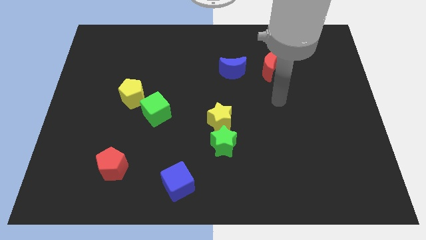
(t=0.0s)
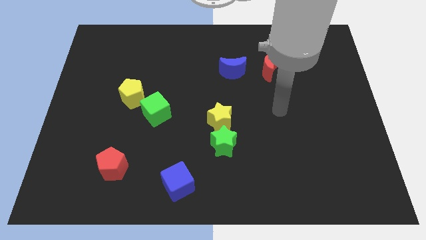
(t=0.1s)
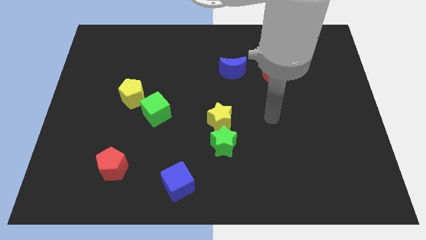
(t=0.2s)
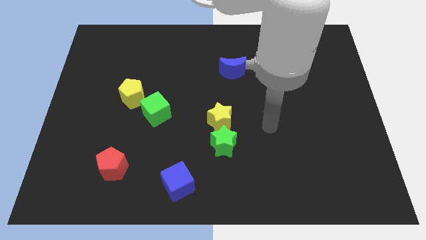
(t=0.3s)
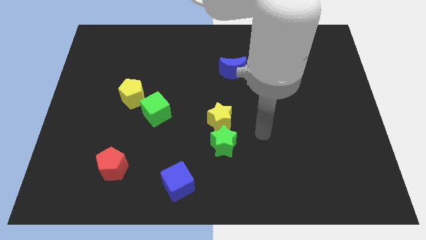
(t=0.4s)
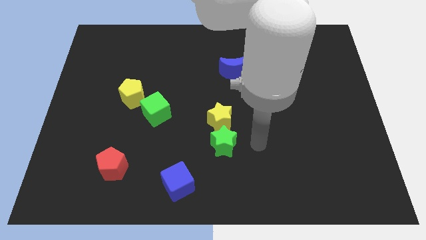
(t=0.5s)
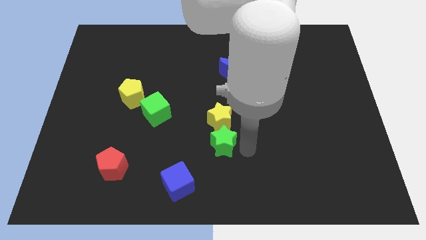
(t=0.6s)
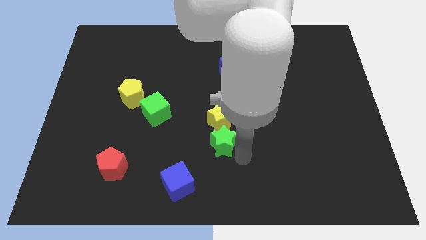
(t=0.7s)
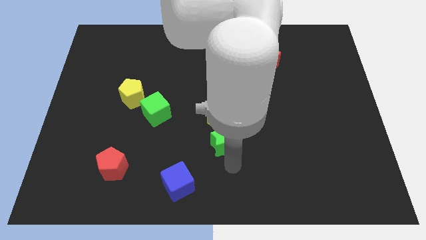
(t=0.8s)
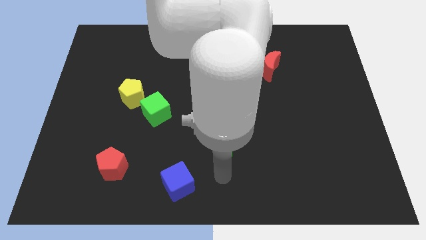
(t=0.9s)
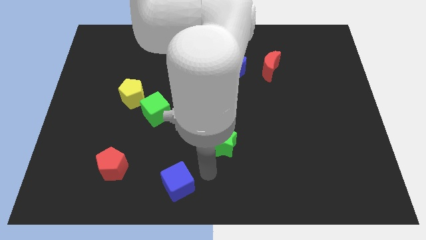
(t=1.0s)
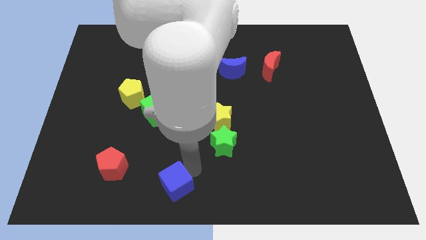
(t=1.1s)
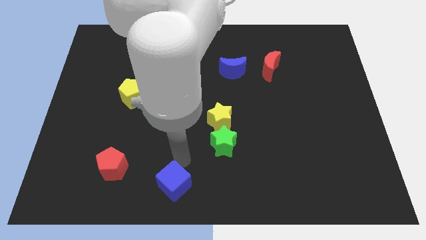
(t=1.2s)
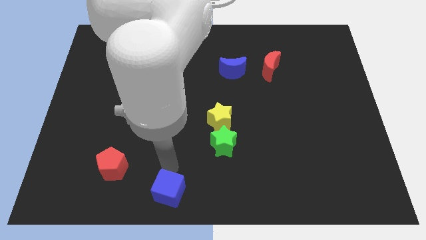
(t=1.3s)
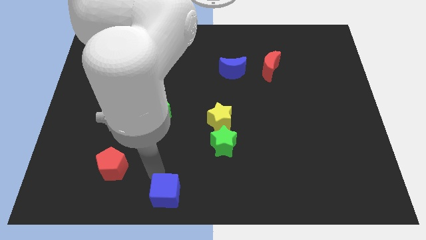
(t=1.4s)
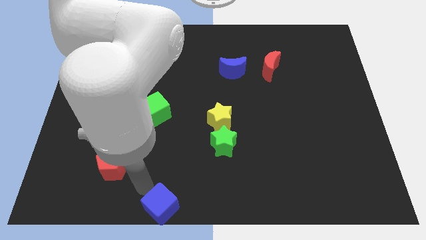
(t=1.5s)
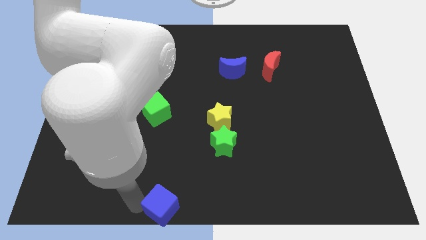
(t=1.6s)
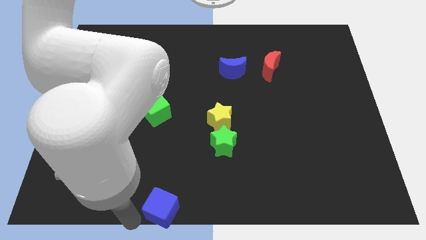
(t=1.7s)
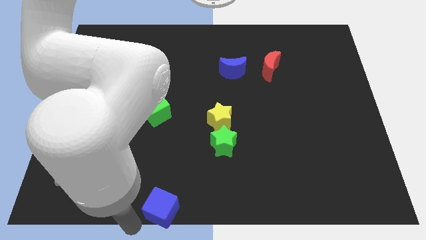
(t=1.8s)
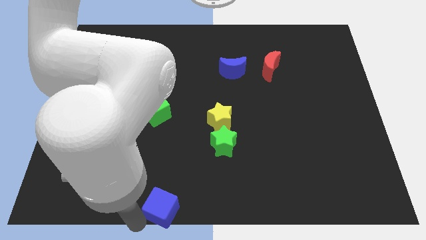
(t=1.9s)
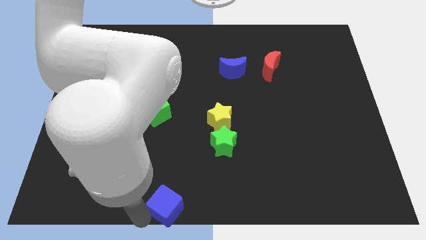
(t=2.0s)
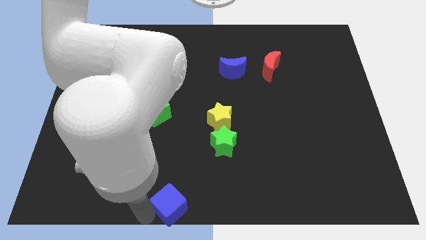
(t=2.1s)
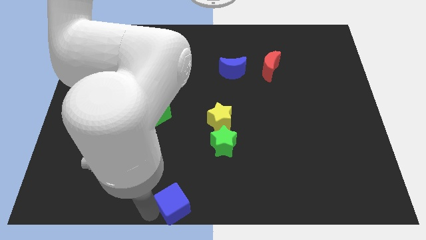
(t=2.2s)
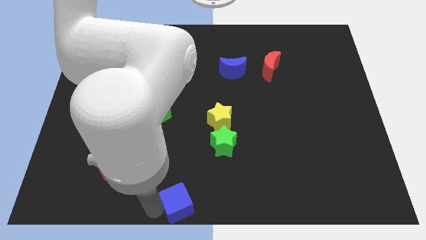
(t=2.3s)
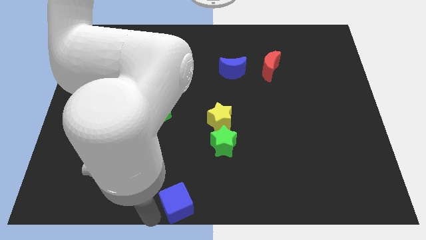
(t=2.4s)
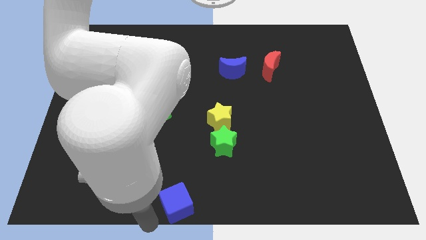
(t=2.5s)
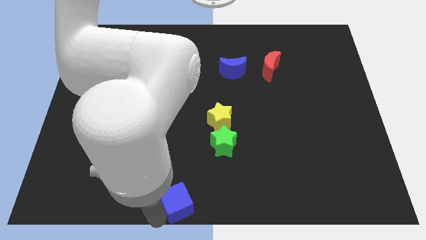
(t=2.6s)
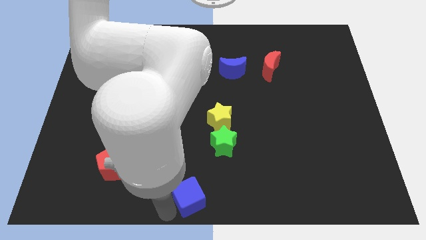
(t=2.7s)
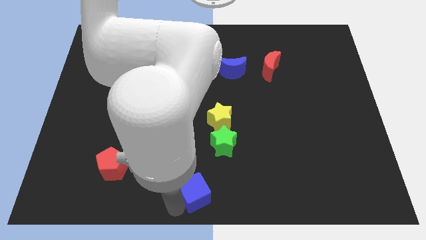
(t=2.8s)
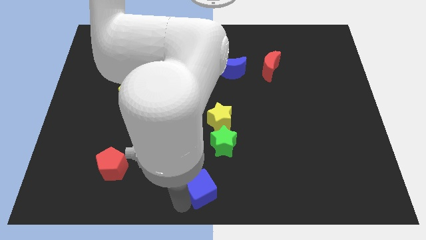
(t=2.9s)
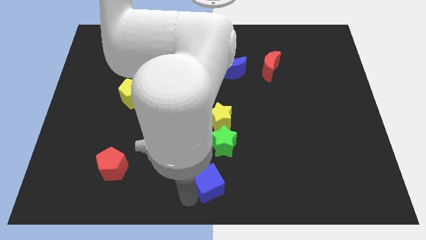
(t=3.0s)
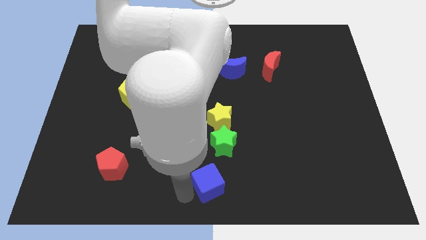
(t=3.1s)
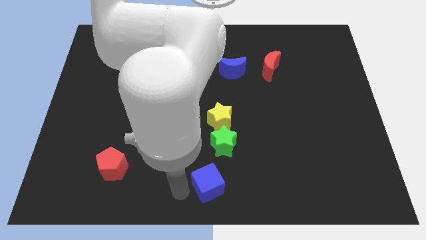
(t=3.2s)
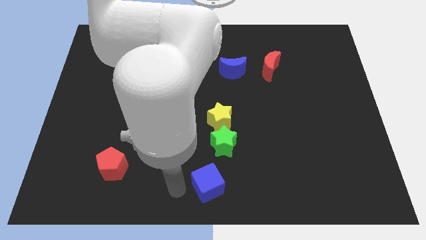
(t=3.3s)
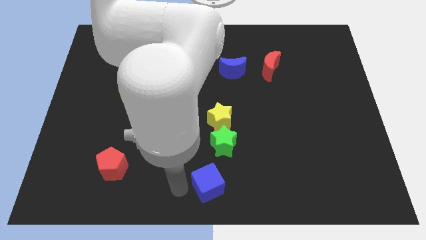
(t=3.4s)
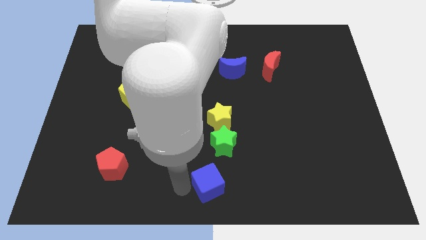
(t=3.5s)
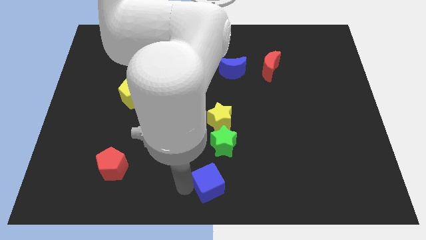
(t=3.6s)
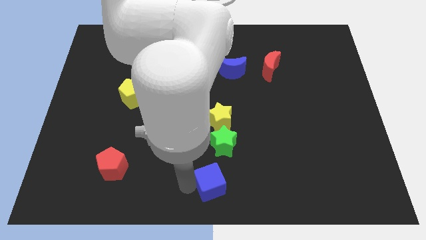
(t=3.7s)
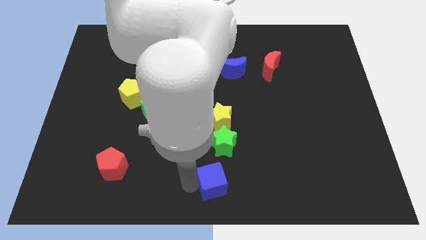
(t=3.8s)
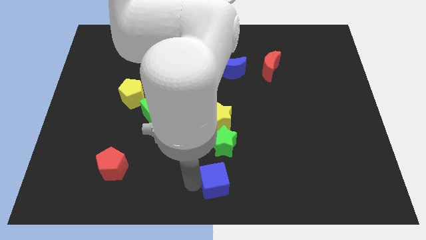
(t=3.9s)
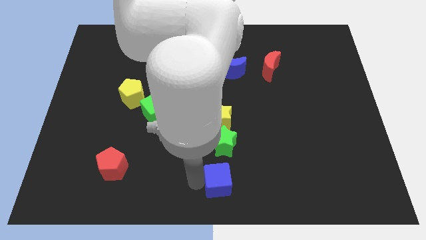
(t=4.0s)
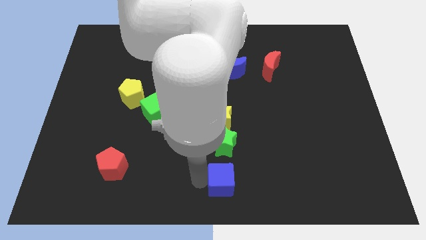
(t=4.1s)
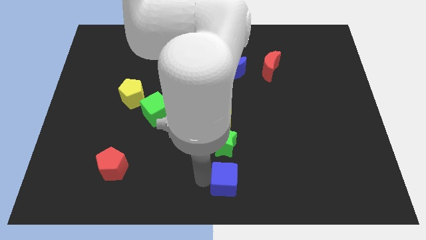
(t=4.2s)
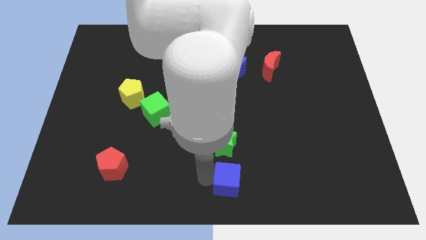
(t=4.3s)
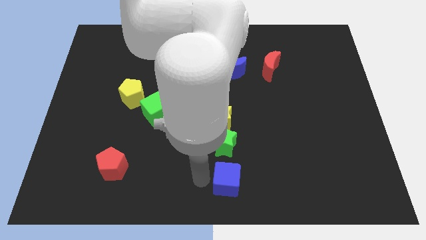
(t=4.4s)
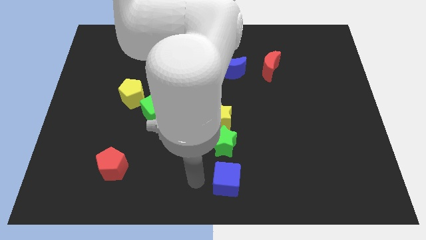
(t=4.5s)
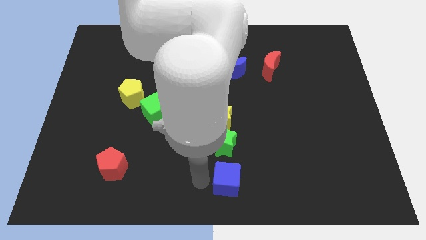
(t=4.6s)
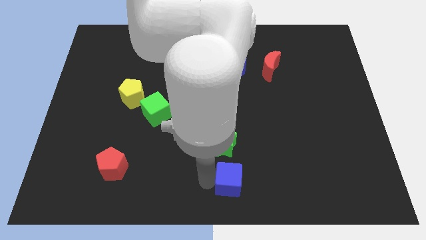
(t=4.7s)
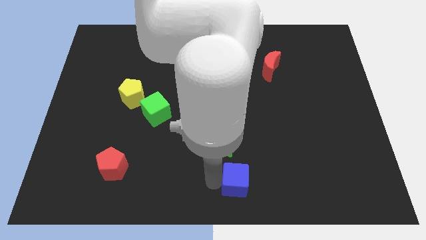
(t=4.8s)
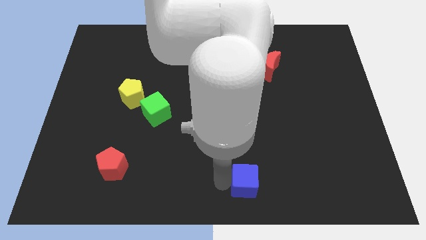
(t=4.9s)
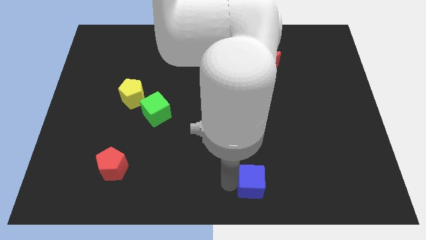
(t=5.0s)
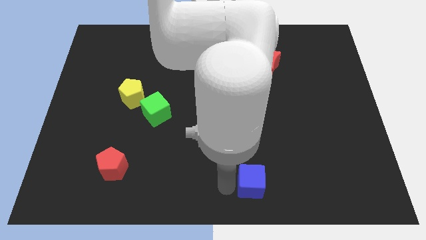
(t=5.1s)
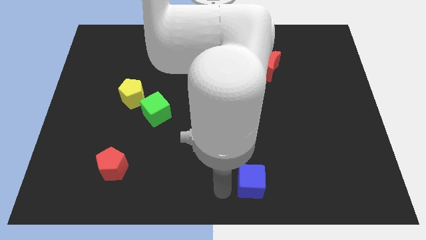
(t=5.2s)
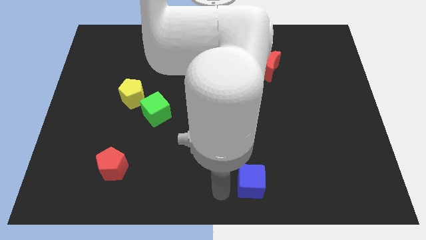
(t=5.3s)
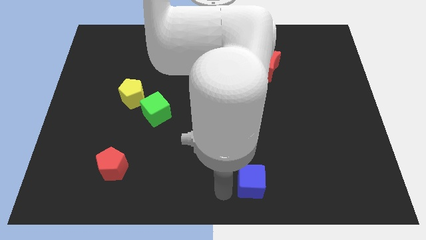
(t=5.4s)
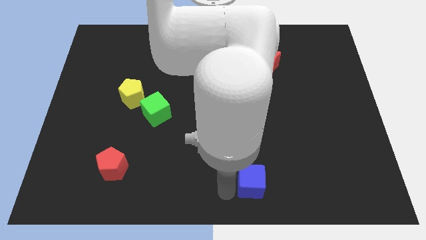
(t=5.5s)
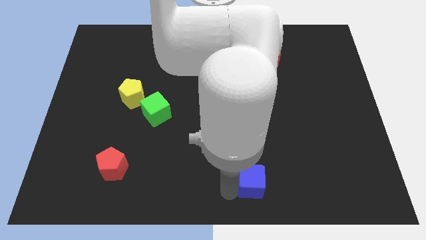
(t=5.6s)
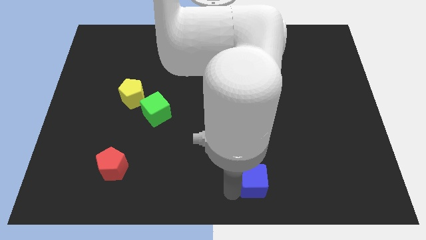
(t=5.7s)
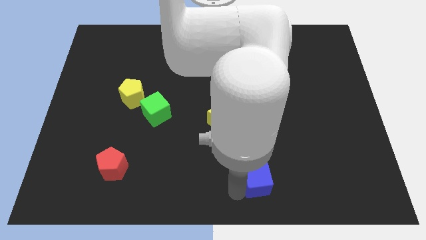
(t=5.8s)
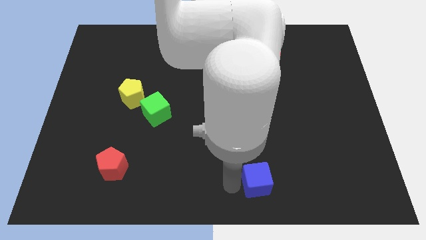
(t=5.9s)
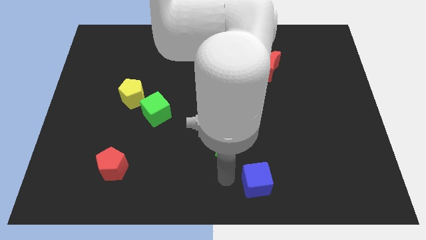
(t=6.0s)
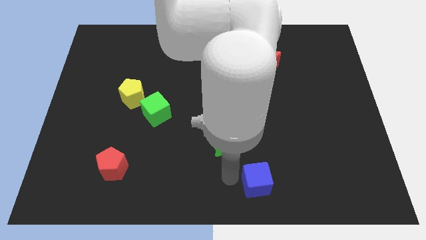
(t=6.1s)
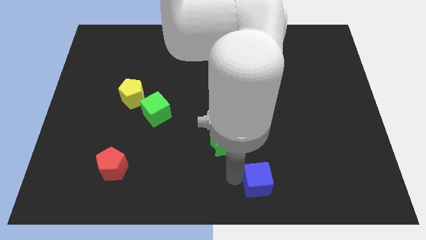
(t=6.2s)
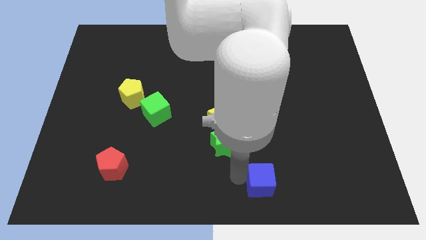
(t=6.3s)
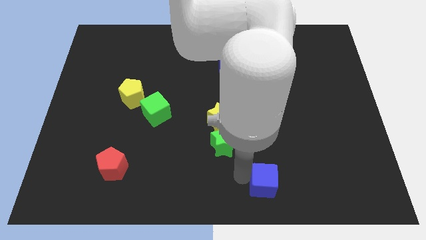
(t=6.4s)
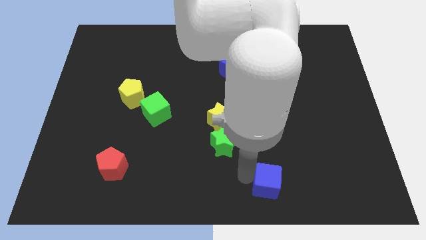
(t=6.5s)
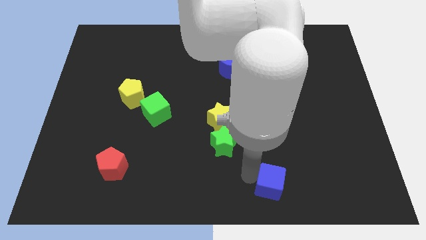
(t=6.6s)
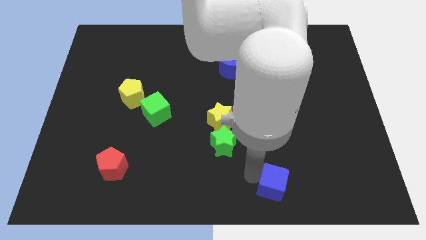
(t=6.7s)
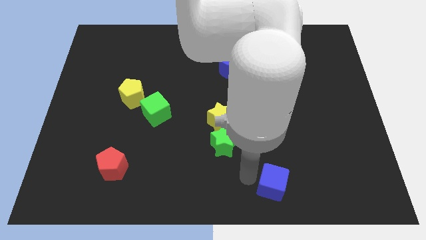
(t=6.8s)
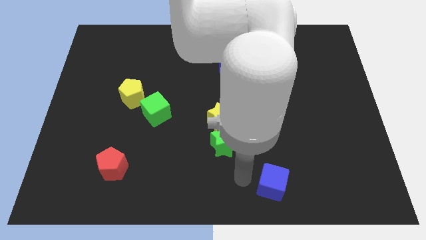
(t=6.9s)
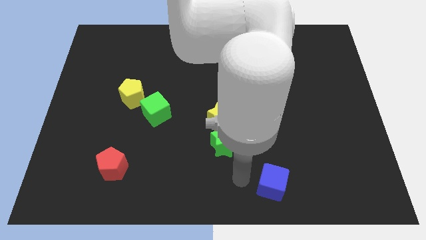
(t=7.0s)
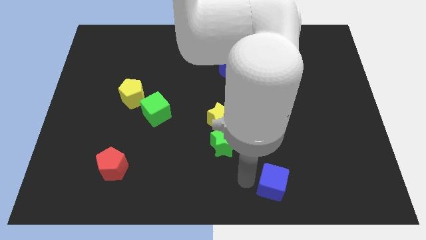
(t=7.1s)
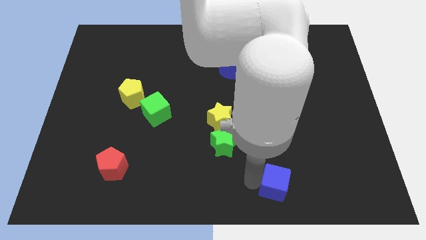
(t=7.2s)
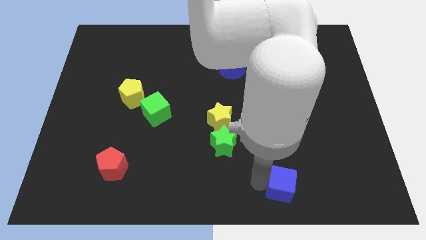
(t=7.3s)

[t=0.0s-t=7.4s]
push the blue cube right

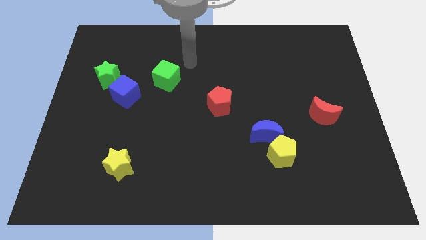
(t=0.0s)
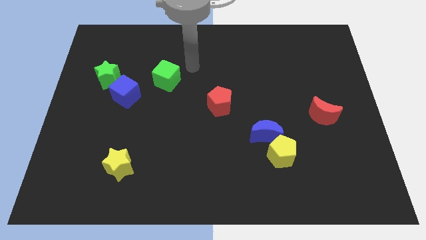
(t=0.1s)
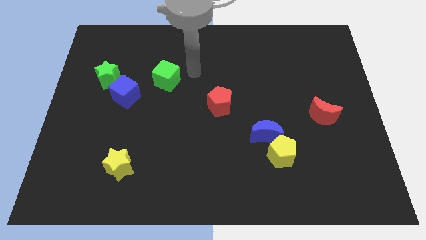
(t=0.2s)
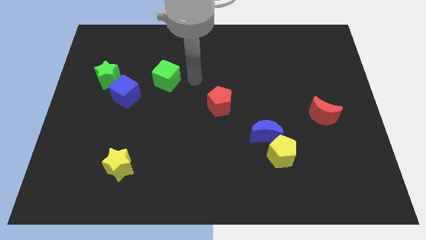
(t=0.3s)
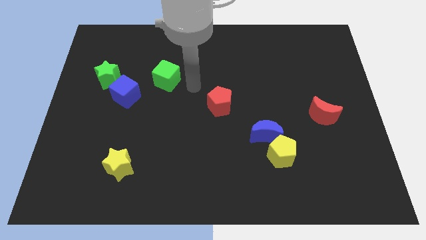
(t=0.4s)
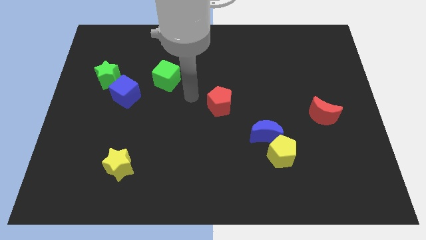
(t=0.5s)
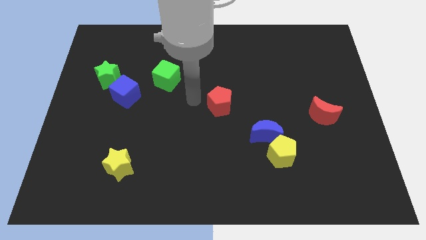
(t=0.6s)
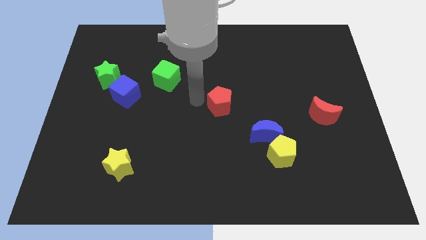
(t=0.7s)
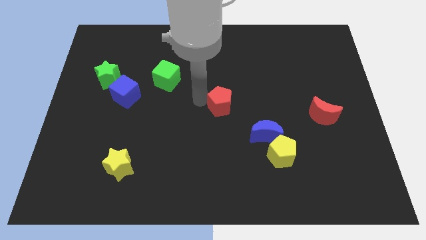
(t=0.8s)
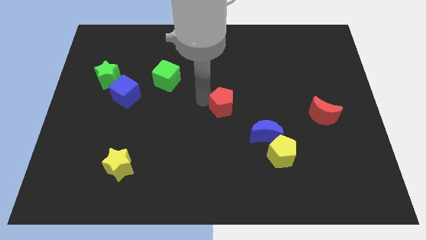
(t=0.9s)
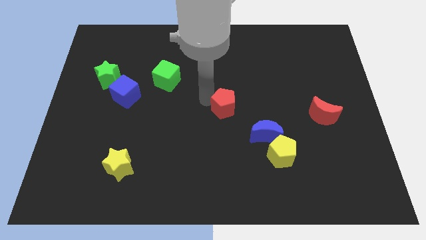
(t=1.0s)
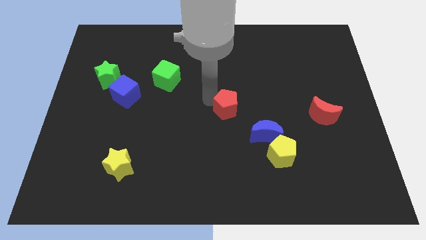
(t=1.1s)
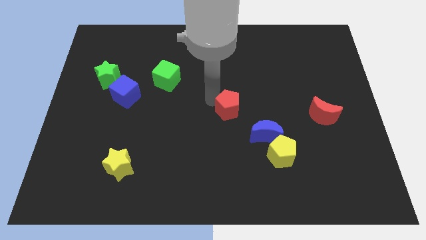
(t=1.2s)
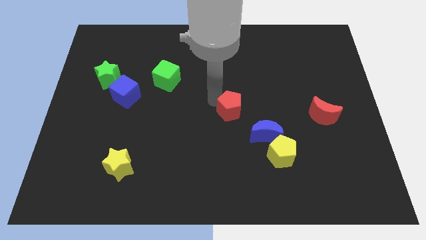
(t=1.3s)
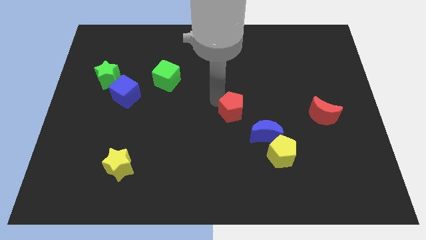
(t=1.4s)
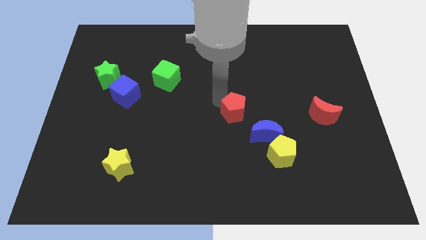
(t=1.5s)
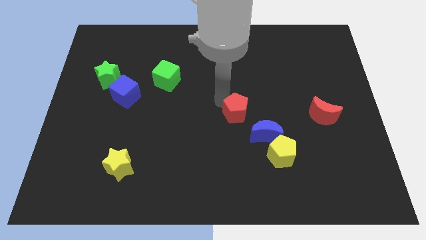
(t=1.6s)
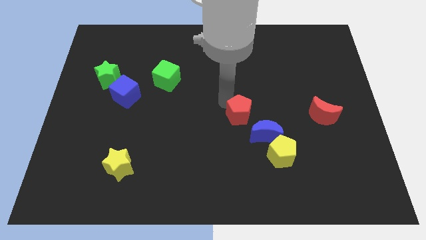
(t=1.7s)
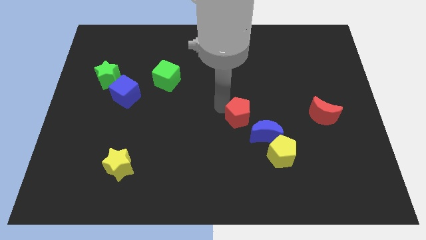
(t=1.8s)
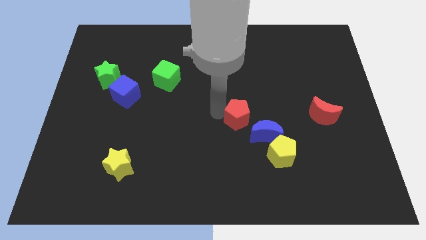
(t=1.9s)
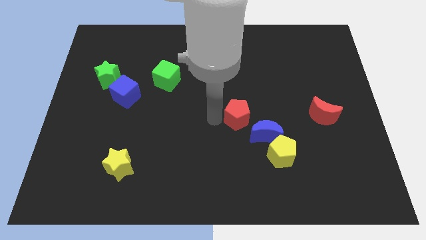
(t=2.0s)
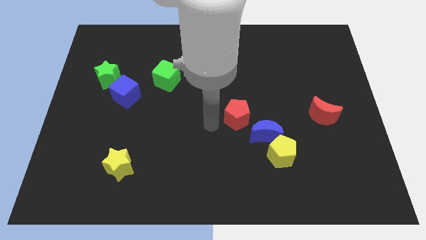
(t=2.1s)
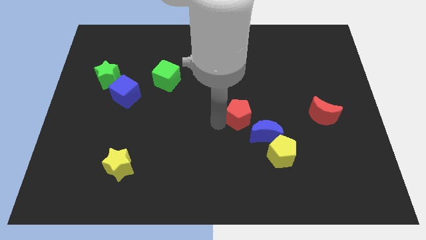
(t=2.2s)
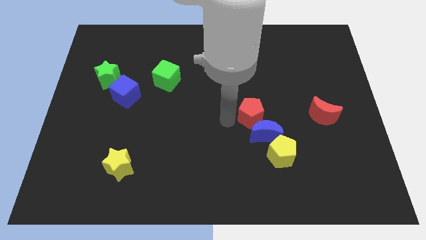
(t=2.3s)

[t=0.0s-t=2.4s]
slightly slide the red pentagon to the right
